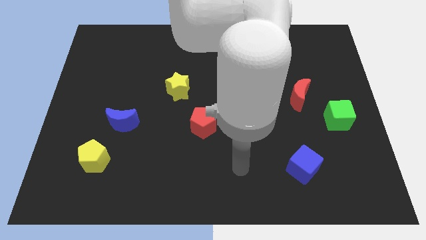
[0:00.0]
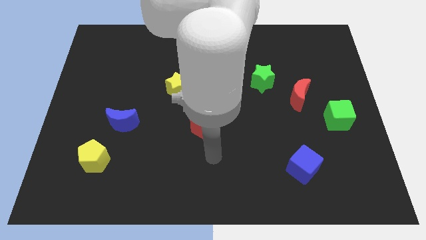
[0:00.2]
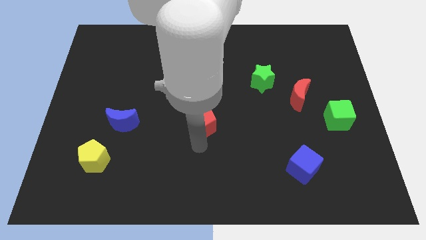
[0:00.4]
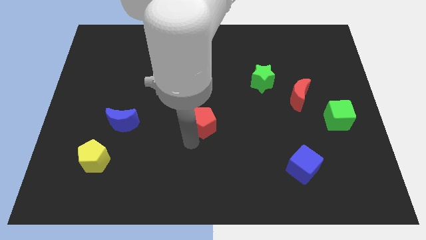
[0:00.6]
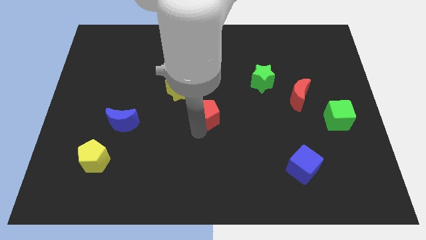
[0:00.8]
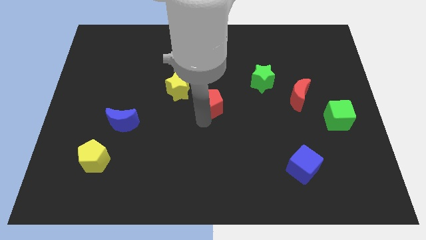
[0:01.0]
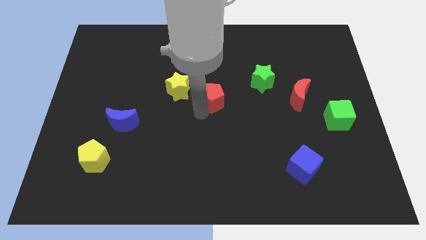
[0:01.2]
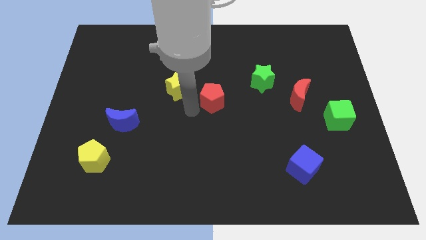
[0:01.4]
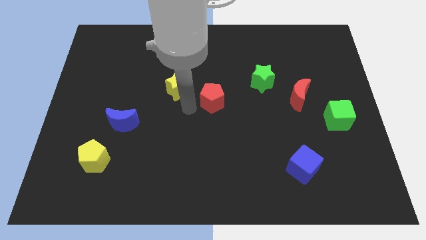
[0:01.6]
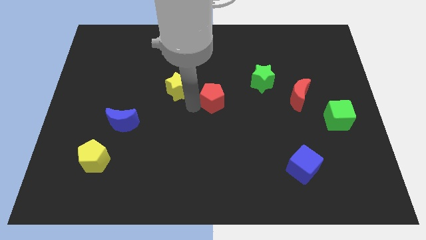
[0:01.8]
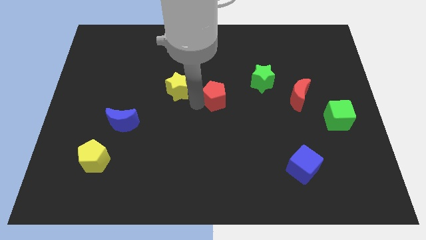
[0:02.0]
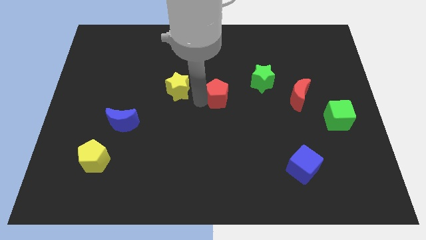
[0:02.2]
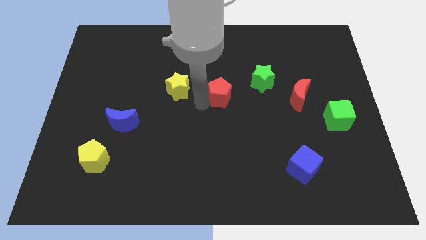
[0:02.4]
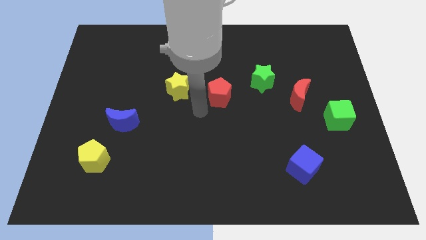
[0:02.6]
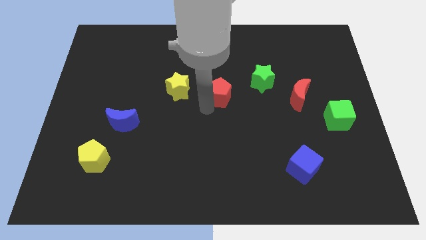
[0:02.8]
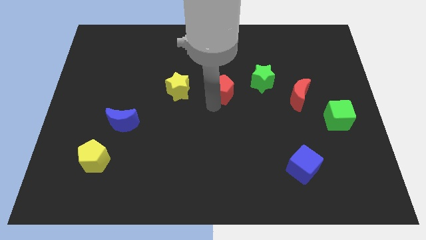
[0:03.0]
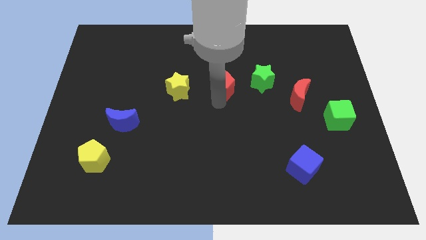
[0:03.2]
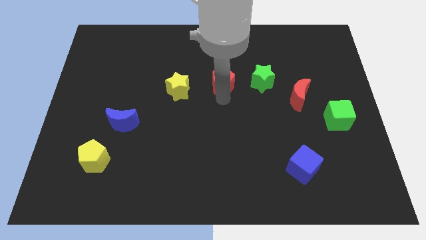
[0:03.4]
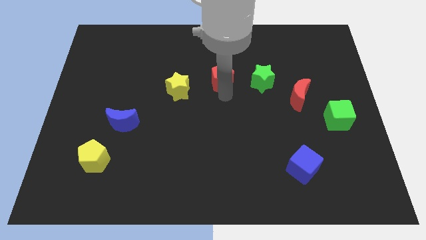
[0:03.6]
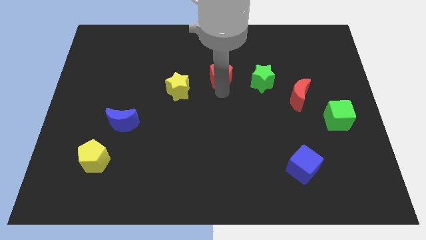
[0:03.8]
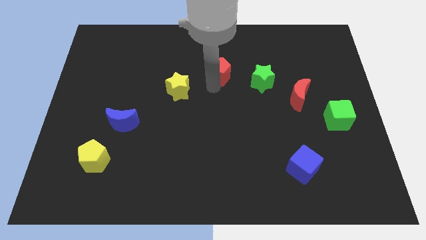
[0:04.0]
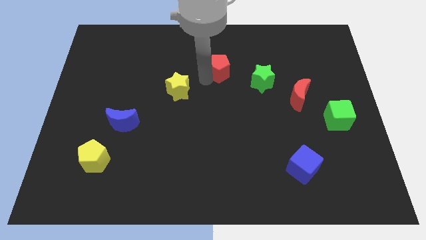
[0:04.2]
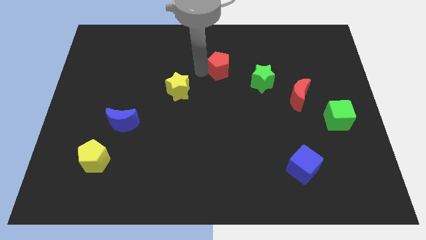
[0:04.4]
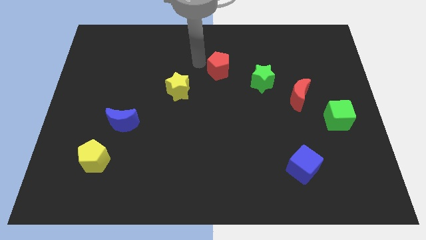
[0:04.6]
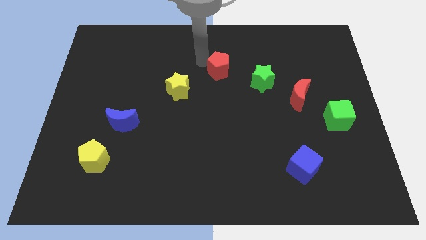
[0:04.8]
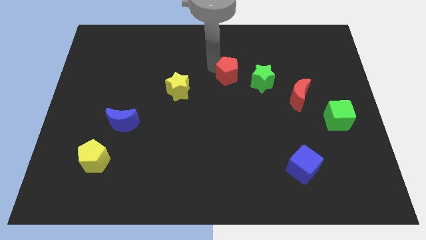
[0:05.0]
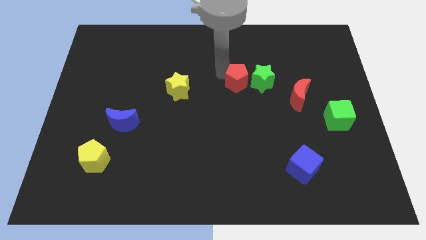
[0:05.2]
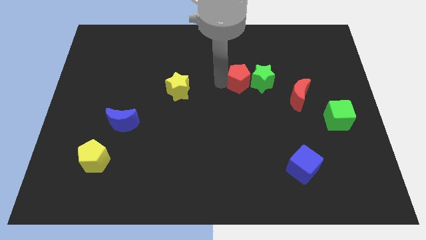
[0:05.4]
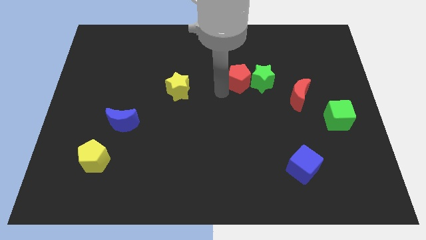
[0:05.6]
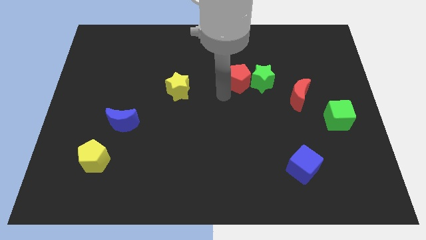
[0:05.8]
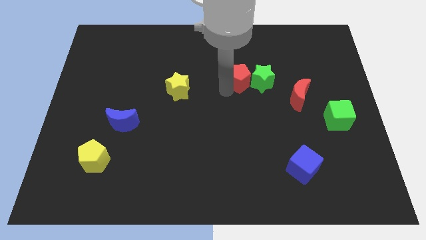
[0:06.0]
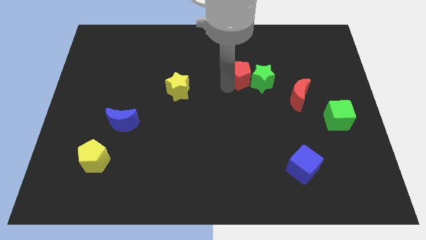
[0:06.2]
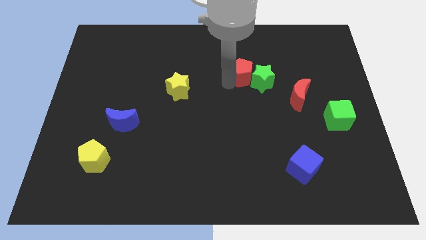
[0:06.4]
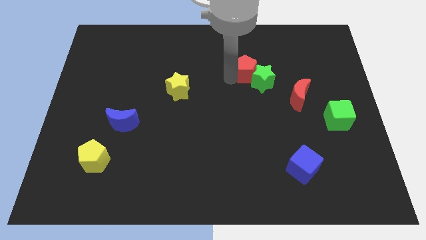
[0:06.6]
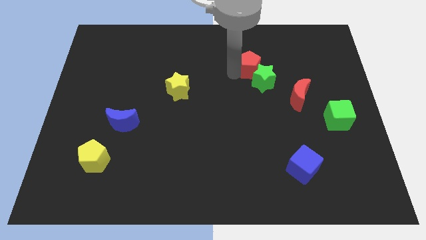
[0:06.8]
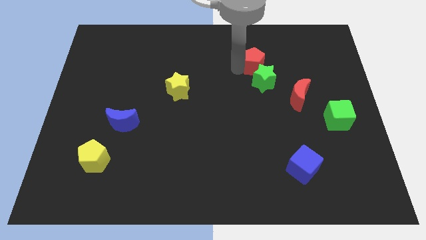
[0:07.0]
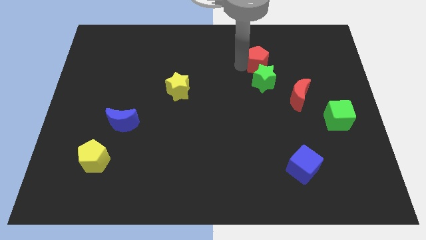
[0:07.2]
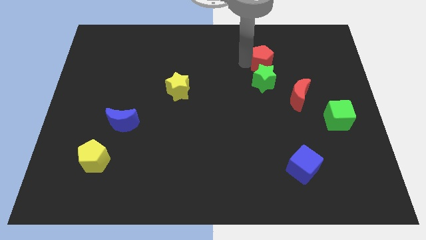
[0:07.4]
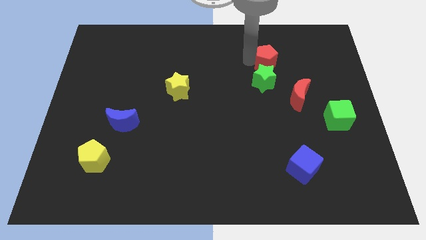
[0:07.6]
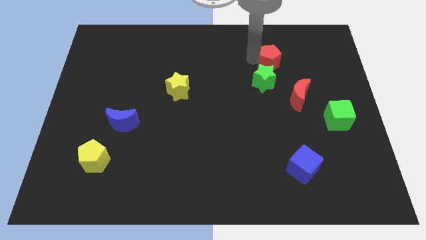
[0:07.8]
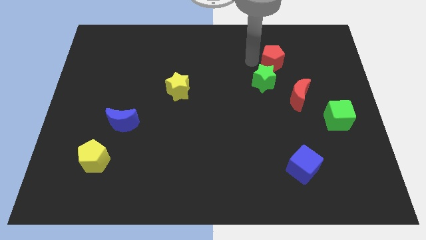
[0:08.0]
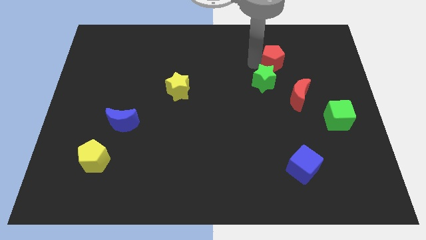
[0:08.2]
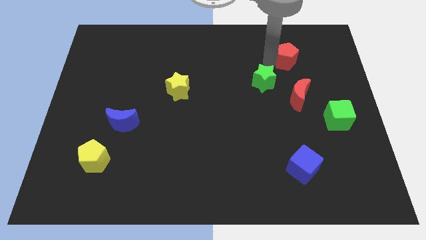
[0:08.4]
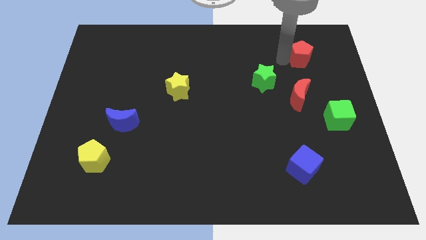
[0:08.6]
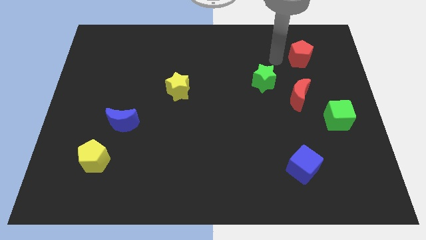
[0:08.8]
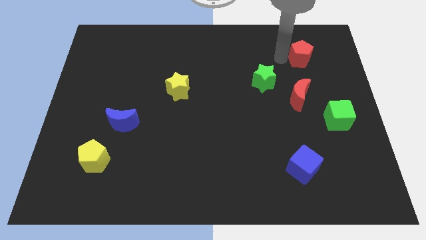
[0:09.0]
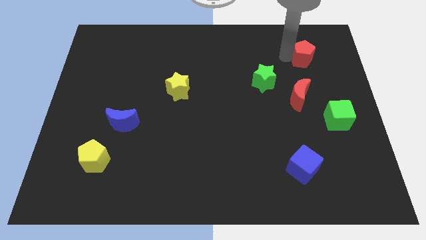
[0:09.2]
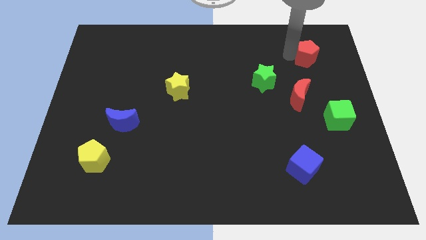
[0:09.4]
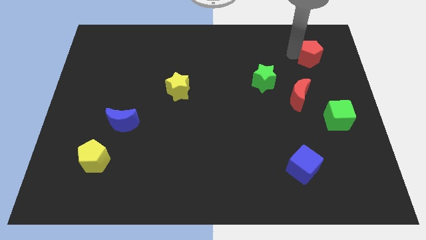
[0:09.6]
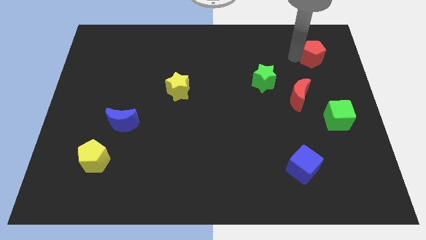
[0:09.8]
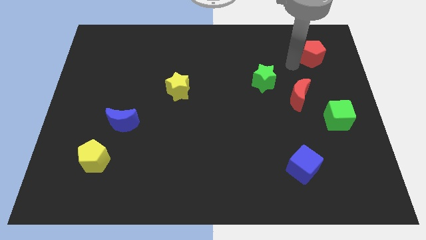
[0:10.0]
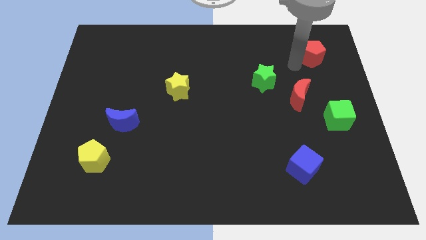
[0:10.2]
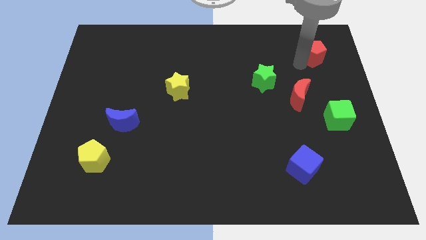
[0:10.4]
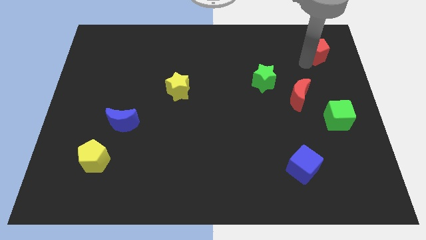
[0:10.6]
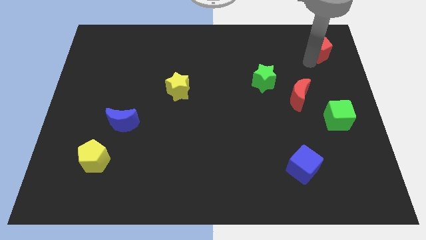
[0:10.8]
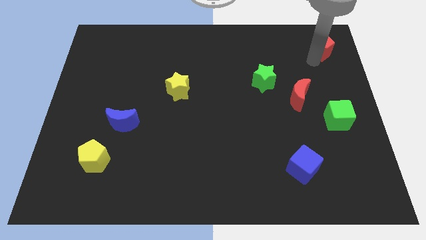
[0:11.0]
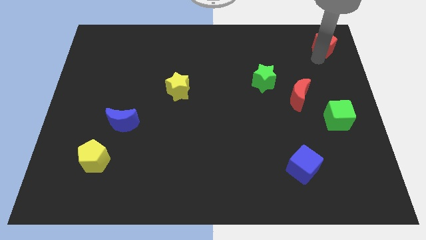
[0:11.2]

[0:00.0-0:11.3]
move the red pentagon to the top right of the board

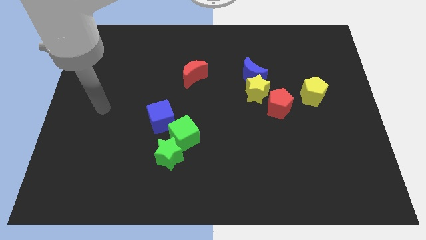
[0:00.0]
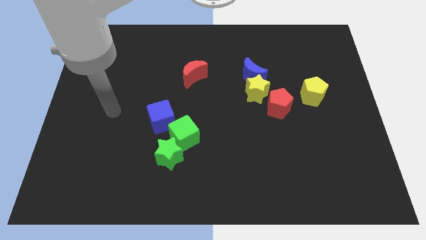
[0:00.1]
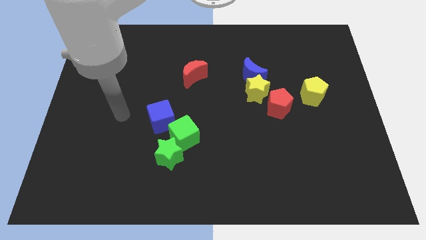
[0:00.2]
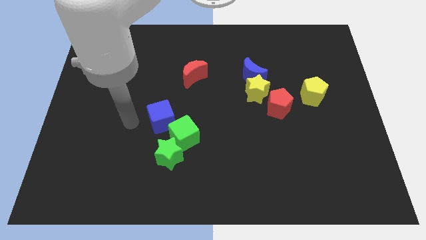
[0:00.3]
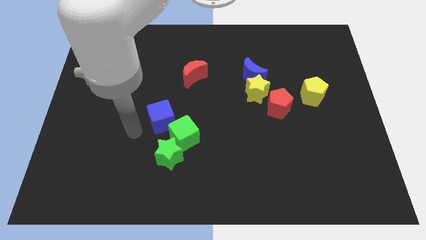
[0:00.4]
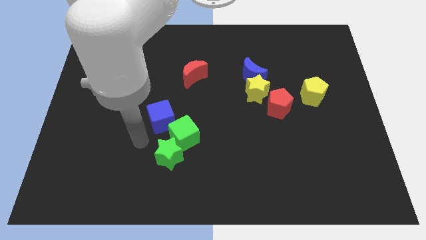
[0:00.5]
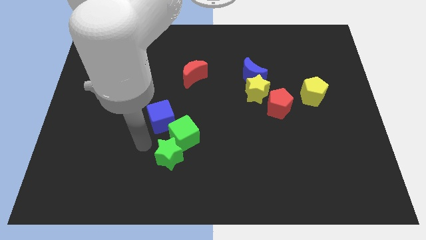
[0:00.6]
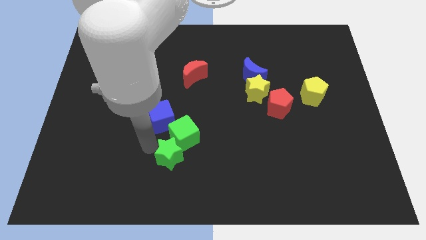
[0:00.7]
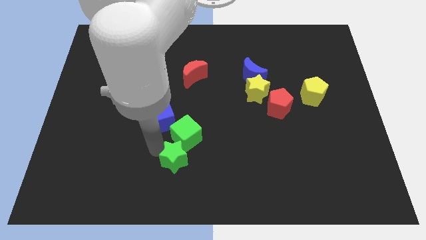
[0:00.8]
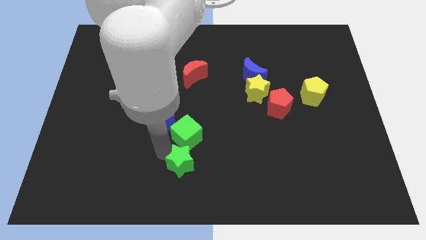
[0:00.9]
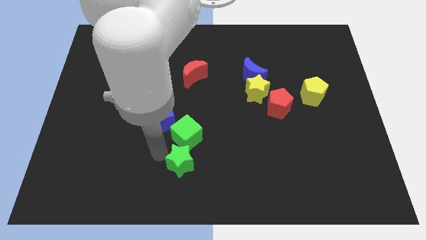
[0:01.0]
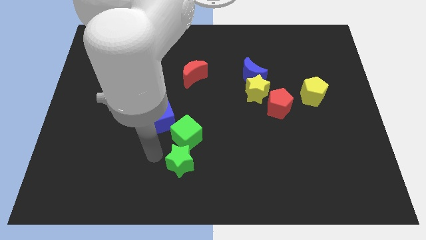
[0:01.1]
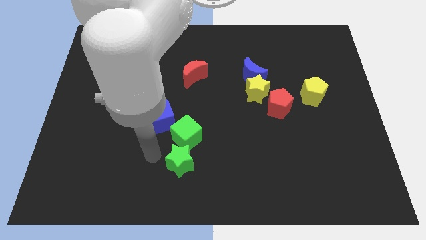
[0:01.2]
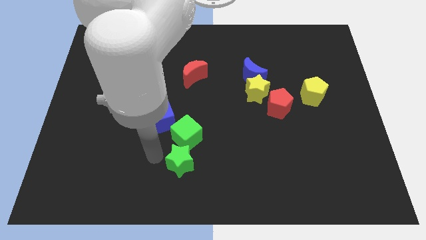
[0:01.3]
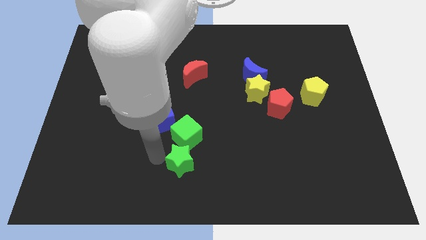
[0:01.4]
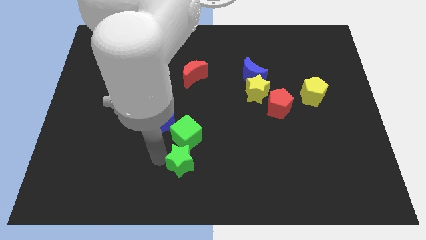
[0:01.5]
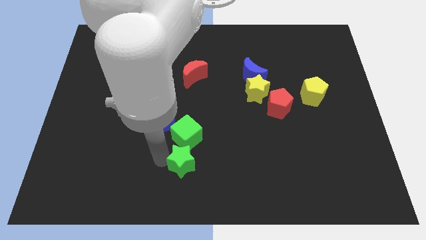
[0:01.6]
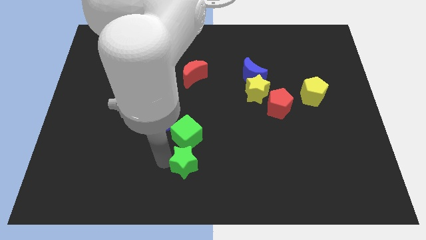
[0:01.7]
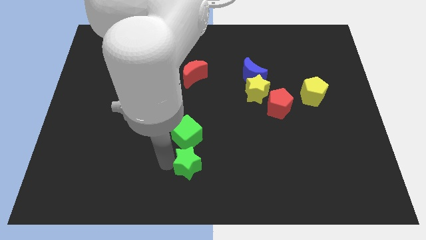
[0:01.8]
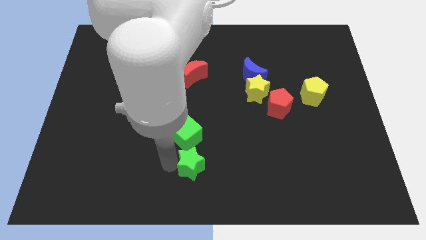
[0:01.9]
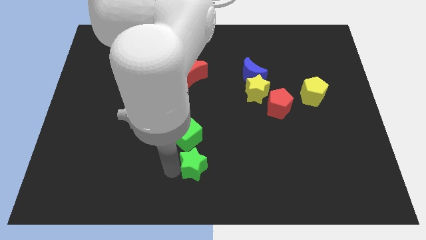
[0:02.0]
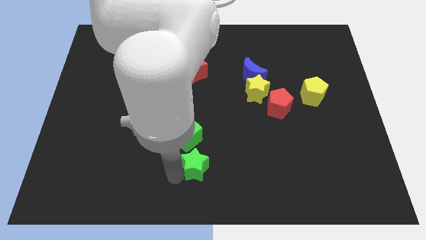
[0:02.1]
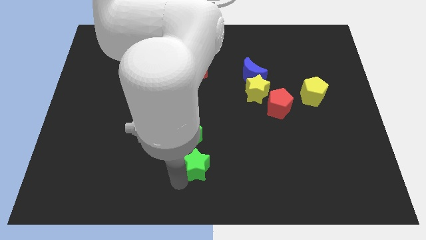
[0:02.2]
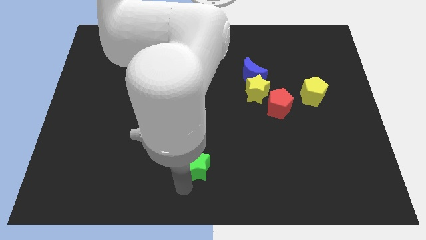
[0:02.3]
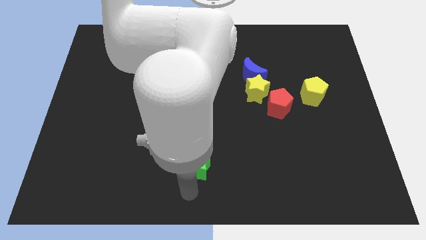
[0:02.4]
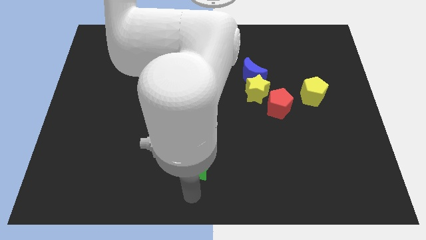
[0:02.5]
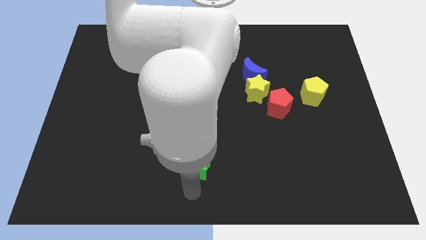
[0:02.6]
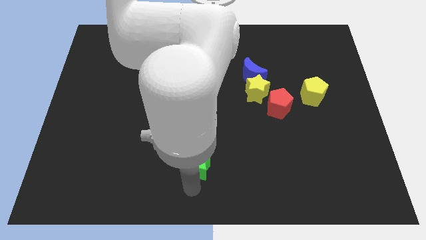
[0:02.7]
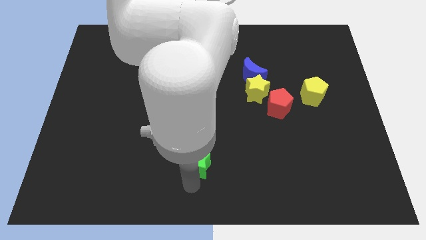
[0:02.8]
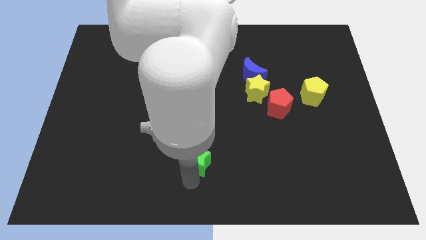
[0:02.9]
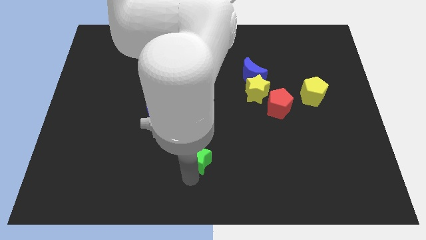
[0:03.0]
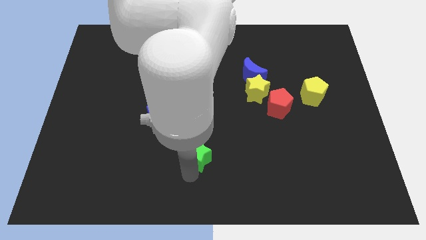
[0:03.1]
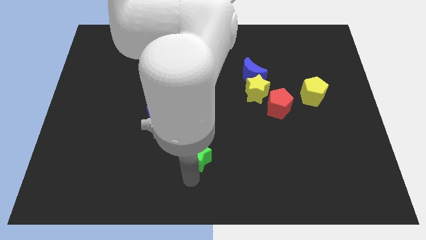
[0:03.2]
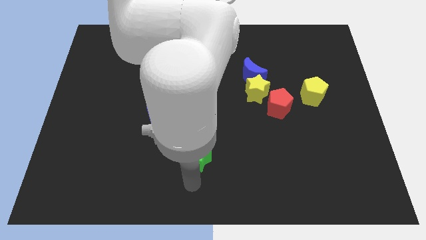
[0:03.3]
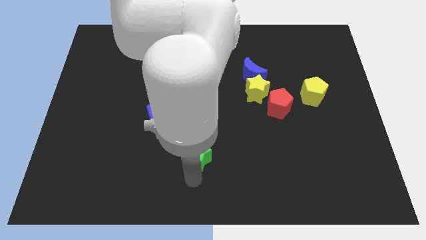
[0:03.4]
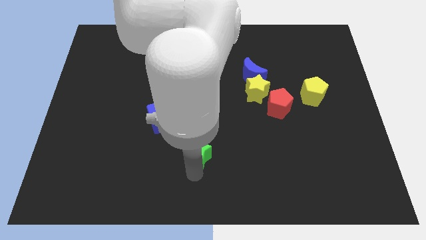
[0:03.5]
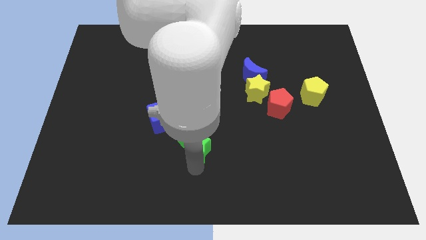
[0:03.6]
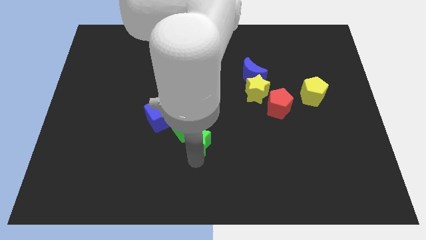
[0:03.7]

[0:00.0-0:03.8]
put the green star to the middle of the board
